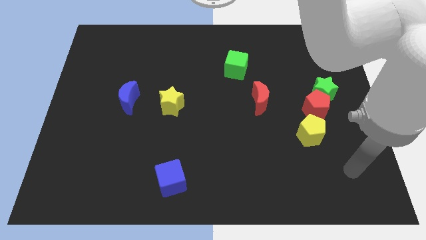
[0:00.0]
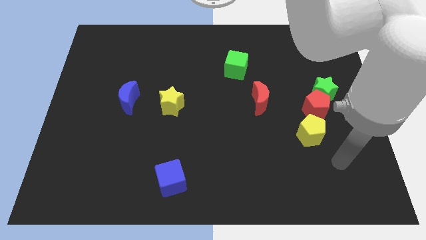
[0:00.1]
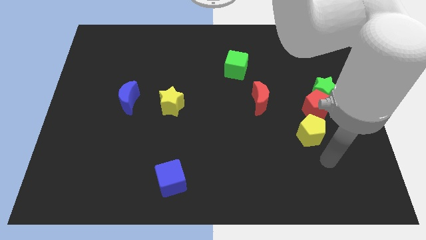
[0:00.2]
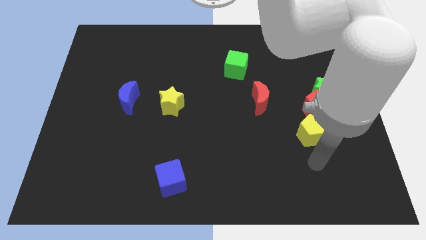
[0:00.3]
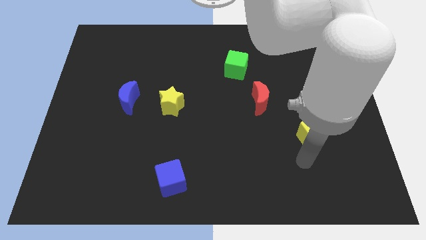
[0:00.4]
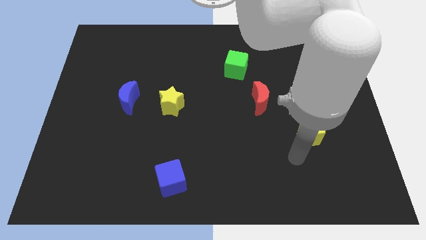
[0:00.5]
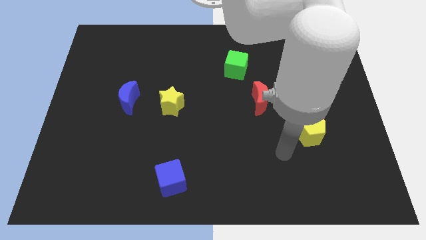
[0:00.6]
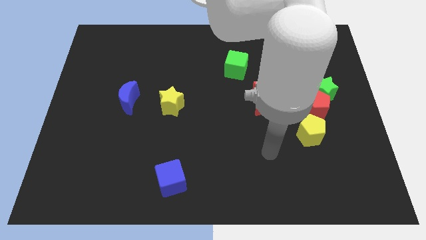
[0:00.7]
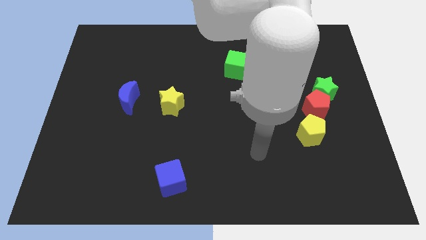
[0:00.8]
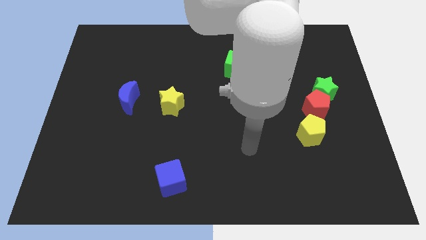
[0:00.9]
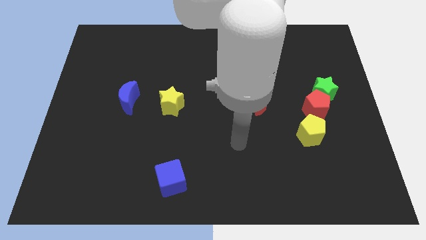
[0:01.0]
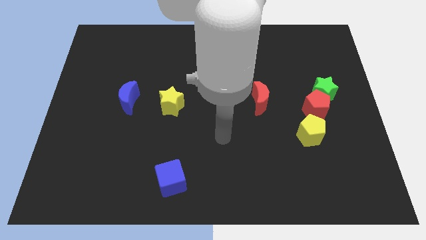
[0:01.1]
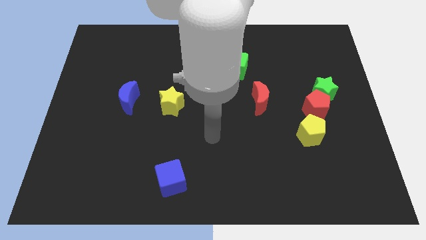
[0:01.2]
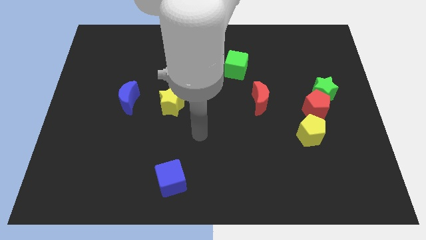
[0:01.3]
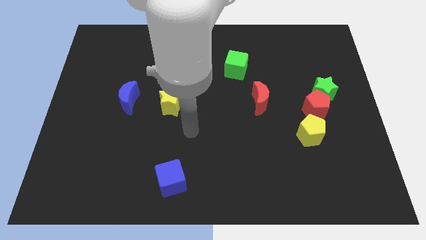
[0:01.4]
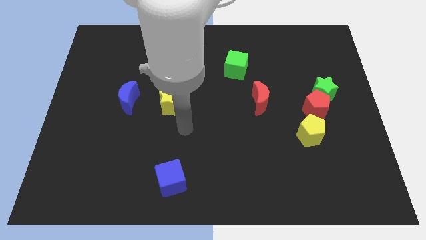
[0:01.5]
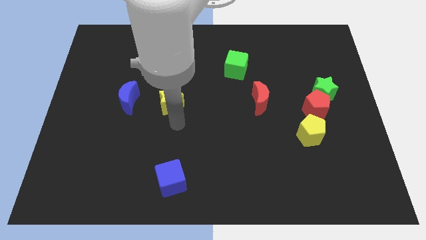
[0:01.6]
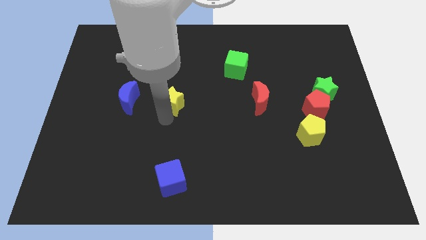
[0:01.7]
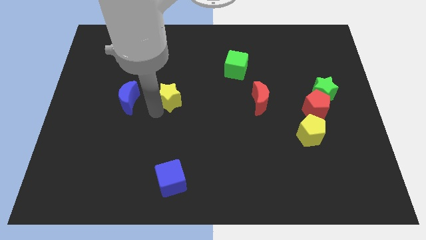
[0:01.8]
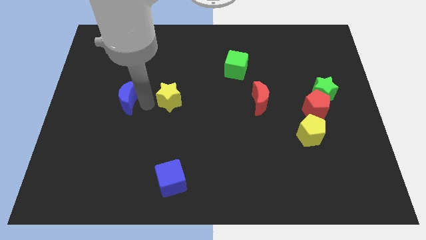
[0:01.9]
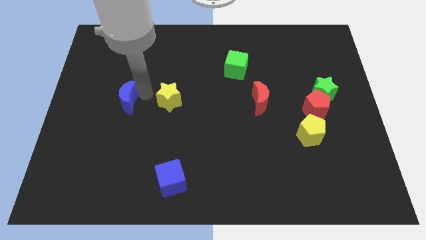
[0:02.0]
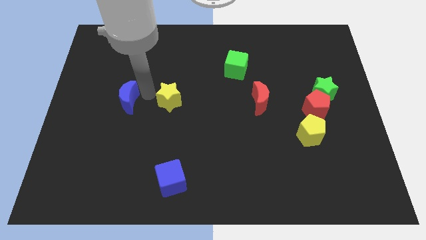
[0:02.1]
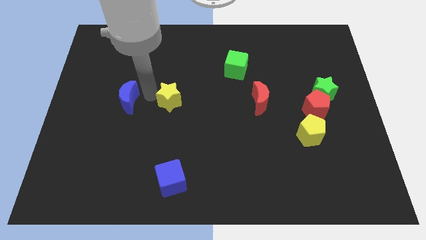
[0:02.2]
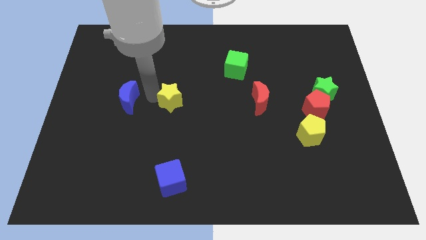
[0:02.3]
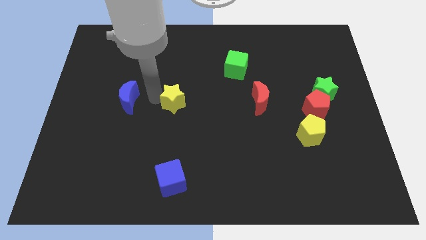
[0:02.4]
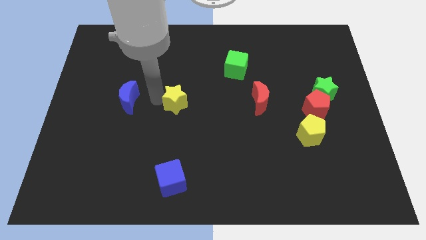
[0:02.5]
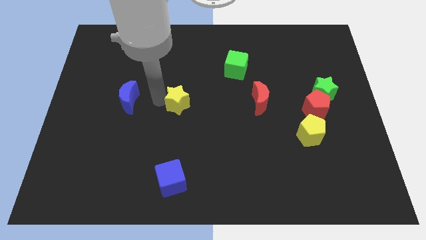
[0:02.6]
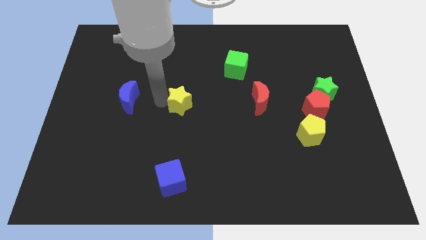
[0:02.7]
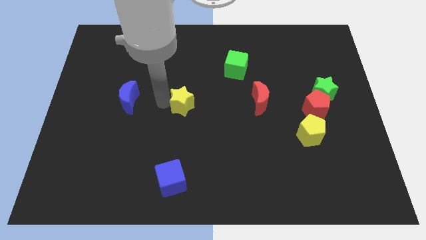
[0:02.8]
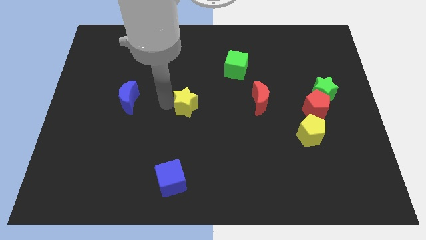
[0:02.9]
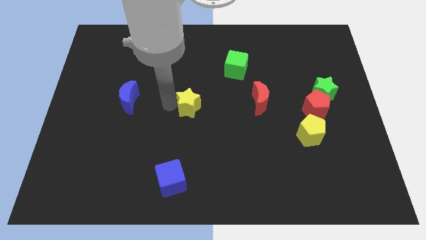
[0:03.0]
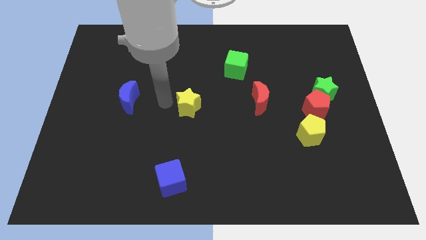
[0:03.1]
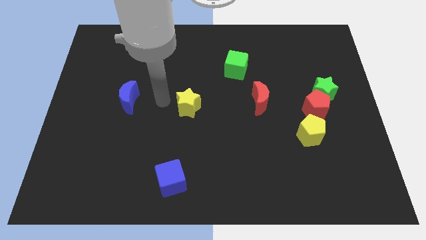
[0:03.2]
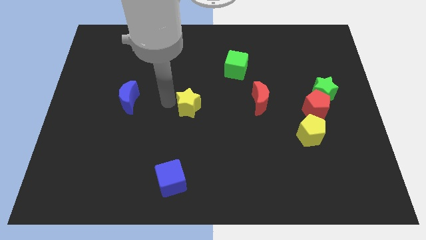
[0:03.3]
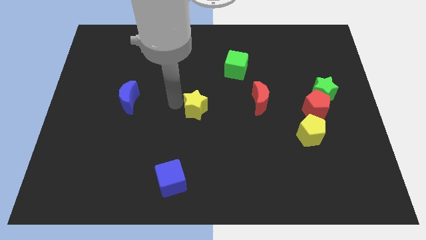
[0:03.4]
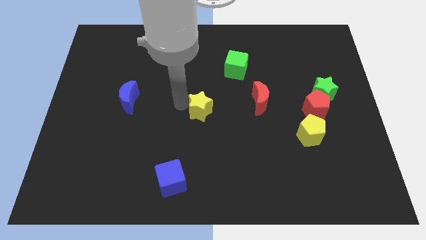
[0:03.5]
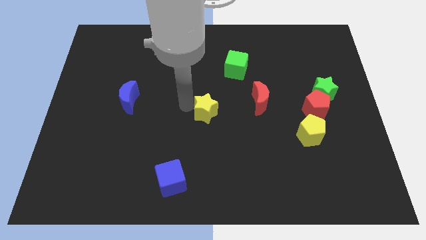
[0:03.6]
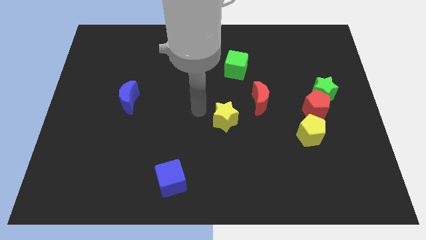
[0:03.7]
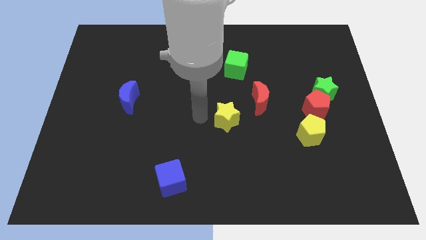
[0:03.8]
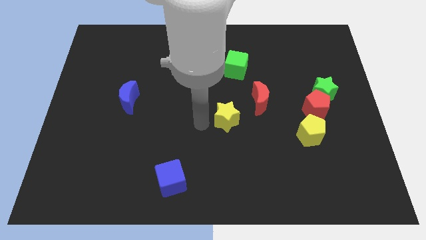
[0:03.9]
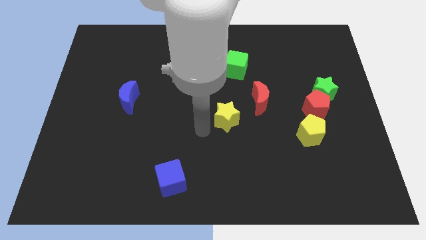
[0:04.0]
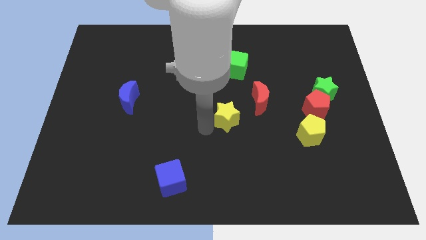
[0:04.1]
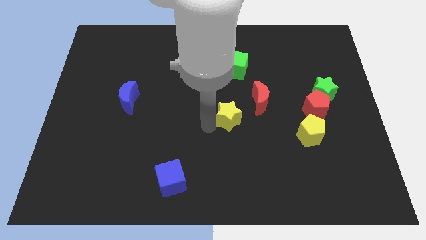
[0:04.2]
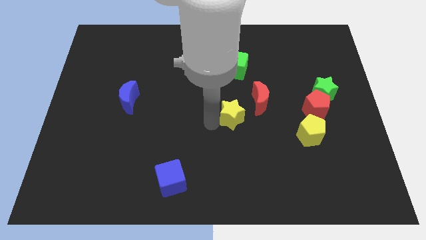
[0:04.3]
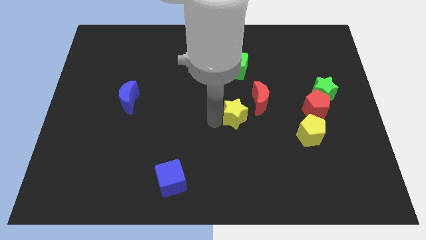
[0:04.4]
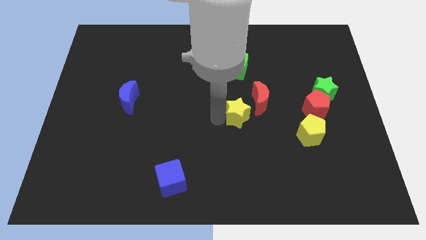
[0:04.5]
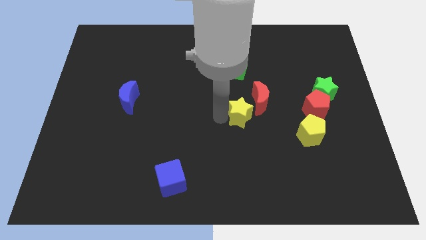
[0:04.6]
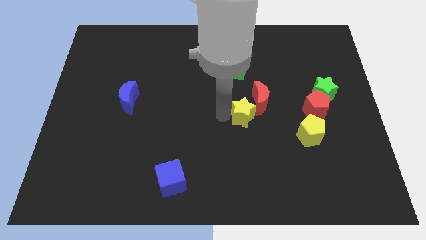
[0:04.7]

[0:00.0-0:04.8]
slide the yellow star close to the red moon

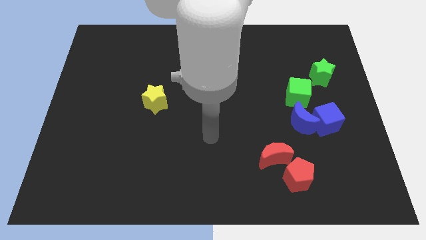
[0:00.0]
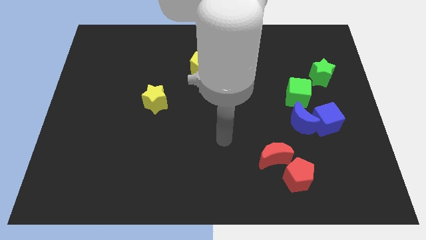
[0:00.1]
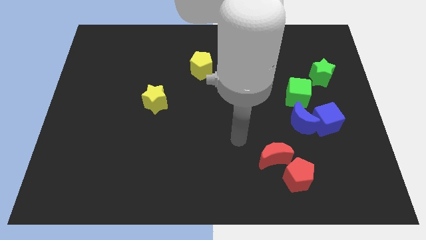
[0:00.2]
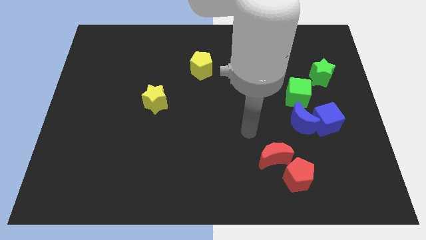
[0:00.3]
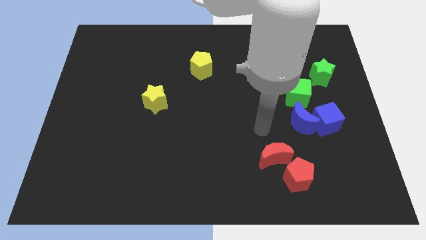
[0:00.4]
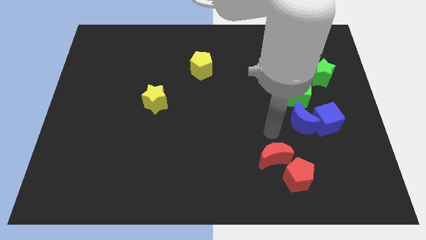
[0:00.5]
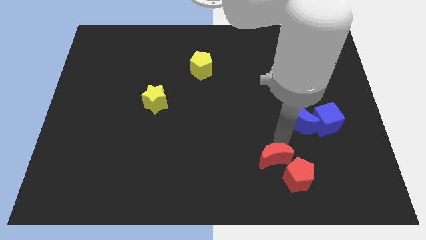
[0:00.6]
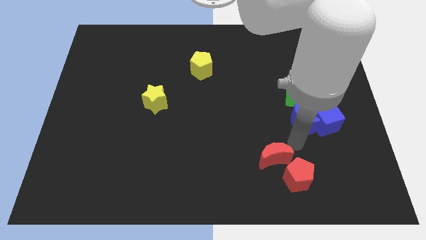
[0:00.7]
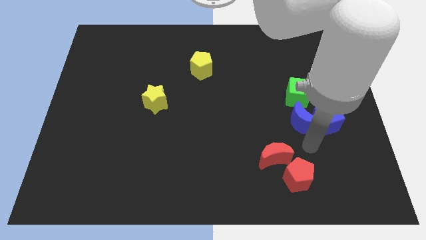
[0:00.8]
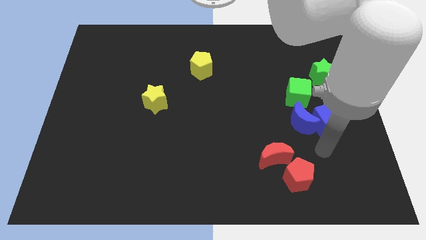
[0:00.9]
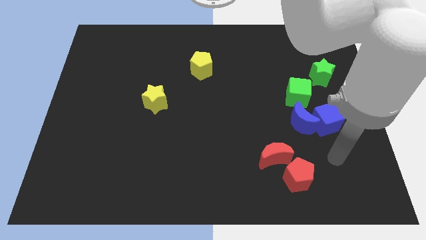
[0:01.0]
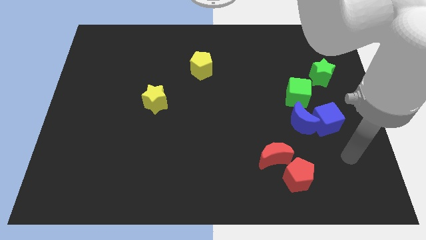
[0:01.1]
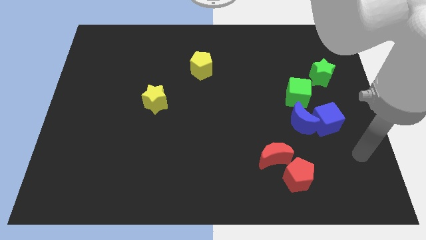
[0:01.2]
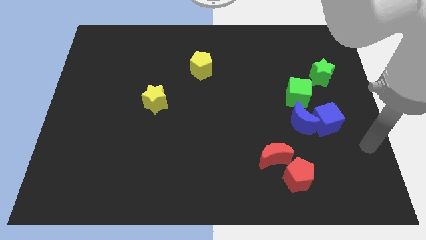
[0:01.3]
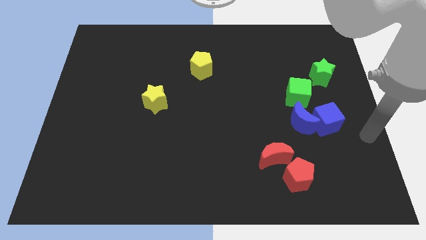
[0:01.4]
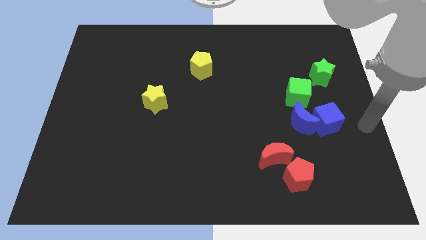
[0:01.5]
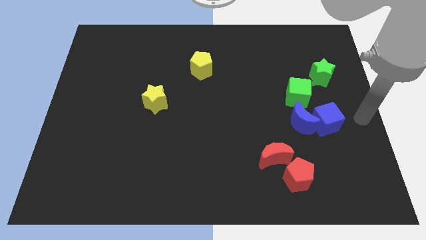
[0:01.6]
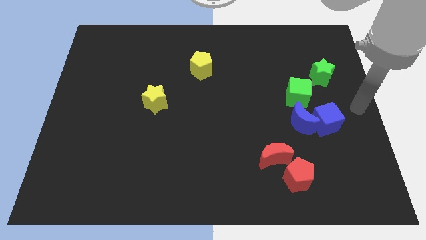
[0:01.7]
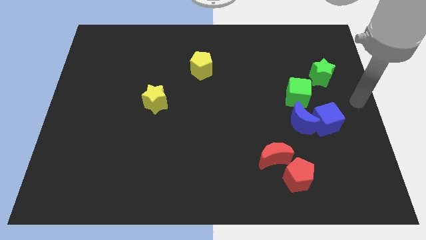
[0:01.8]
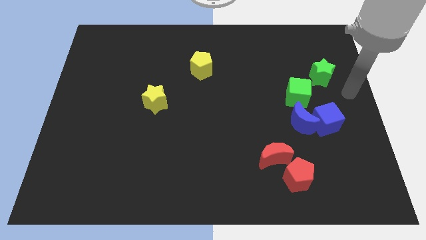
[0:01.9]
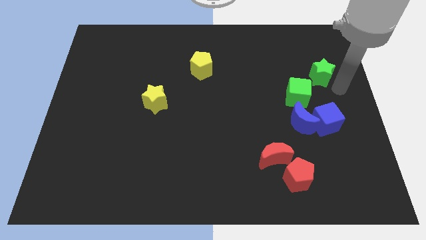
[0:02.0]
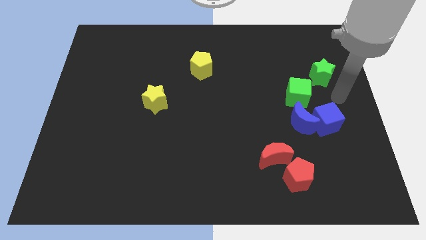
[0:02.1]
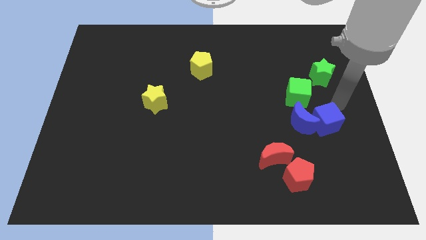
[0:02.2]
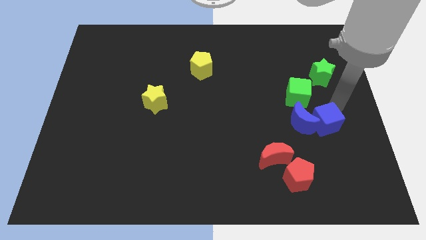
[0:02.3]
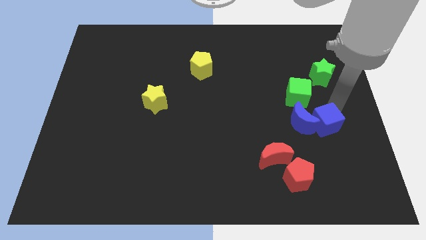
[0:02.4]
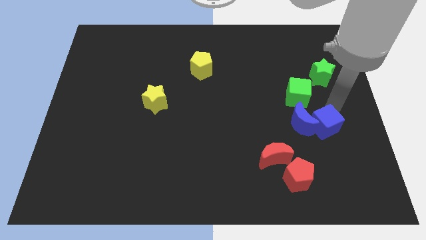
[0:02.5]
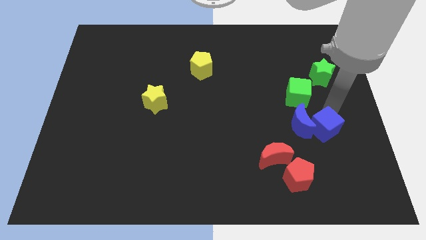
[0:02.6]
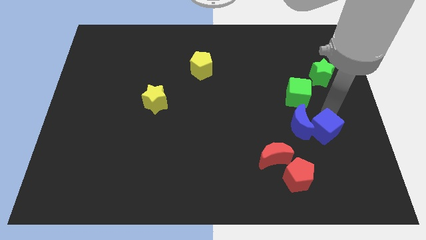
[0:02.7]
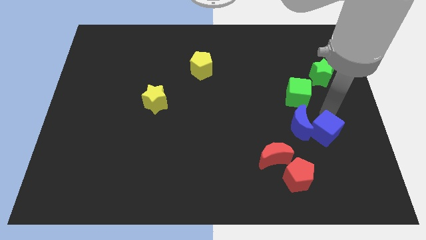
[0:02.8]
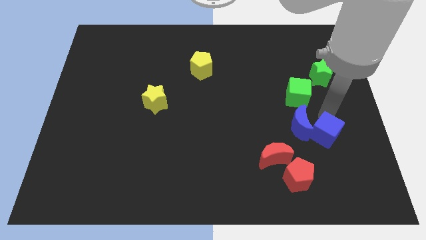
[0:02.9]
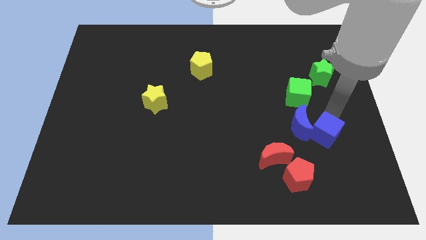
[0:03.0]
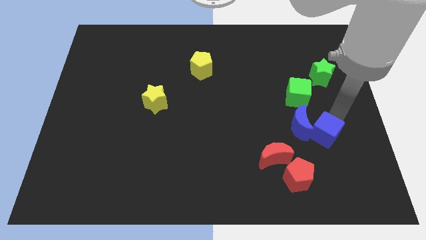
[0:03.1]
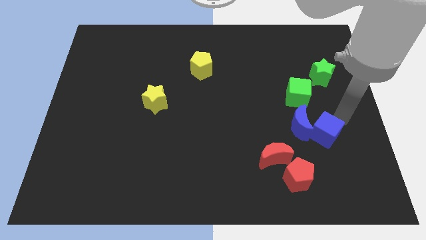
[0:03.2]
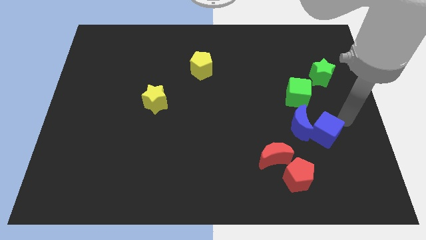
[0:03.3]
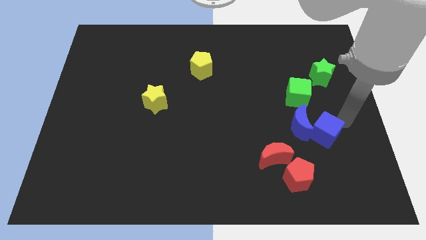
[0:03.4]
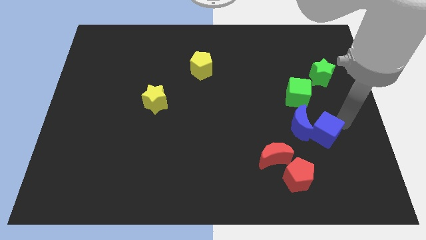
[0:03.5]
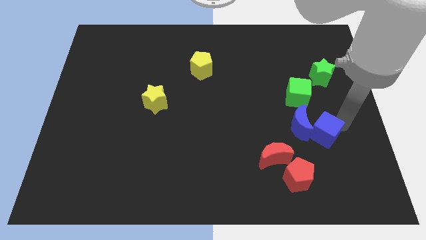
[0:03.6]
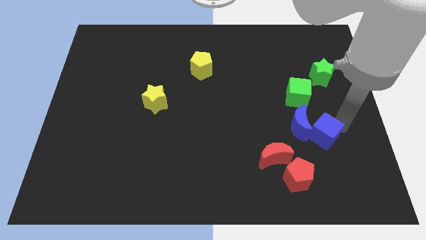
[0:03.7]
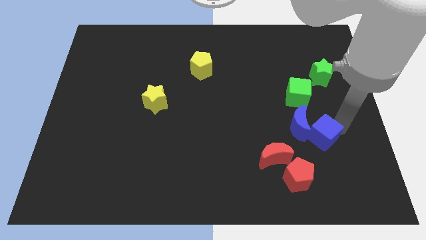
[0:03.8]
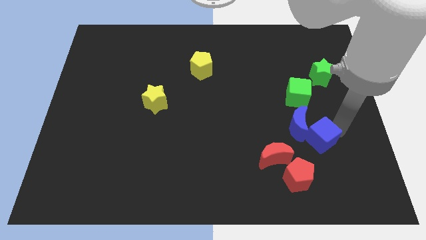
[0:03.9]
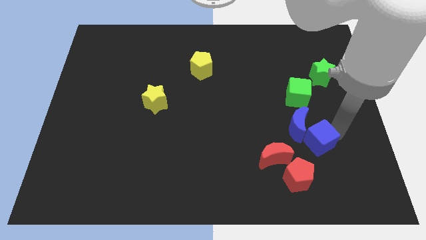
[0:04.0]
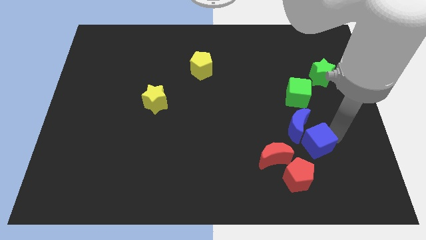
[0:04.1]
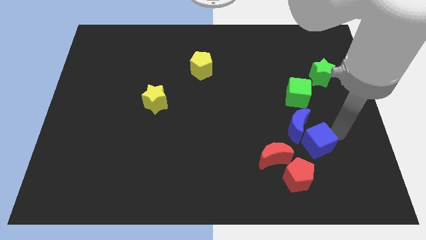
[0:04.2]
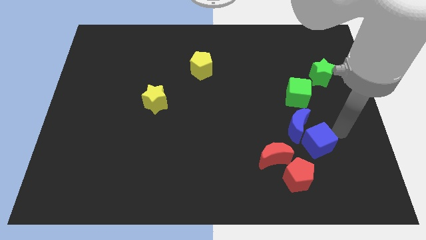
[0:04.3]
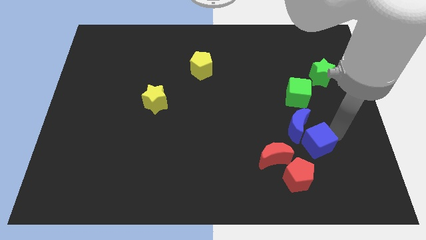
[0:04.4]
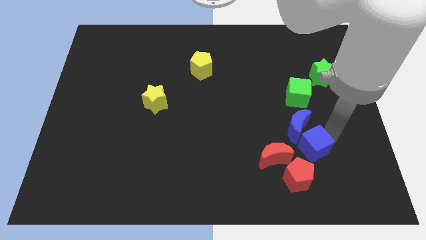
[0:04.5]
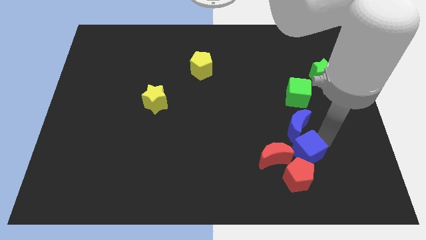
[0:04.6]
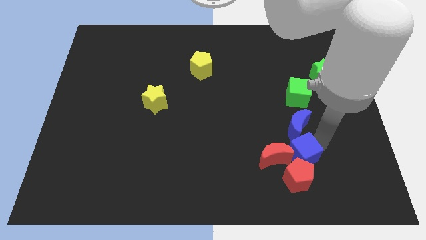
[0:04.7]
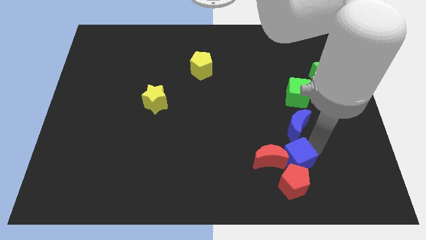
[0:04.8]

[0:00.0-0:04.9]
slide the blue cube close to the red moon
